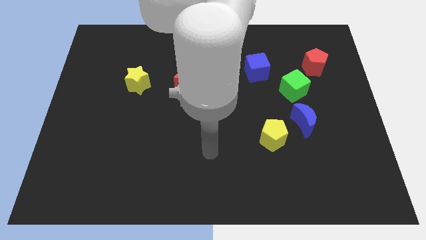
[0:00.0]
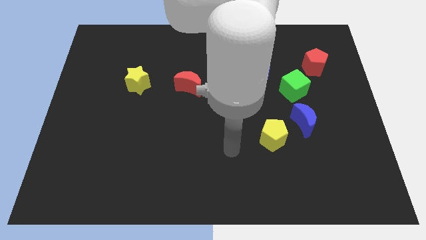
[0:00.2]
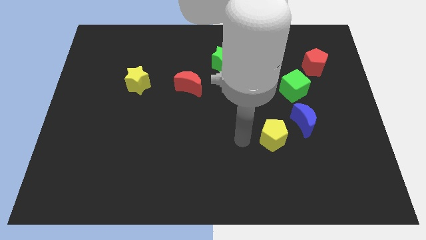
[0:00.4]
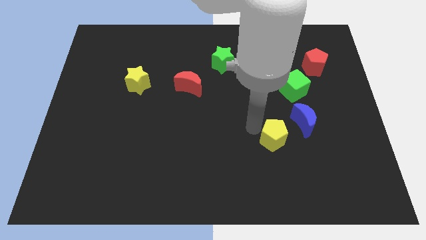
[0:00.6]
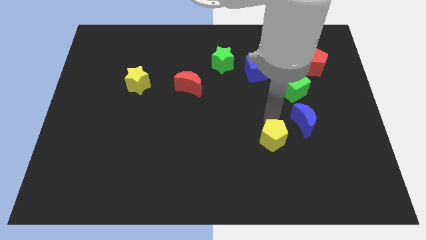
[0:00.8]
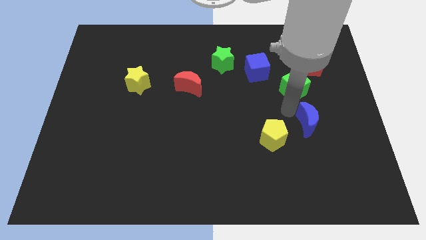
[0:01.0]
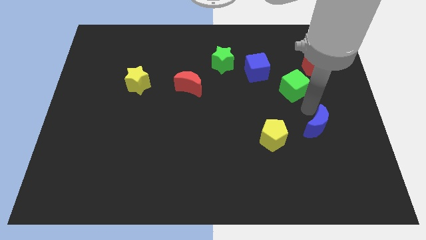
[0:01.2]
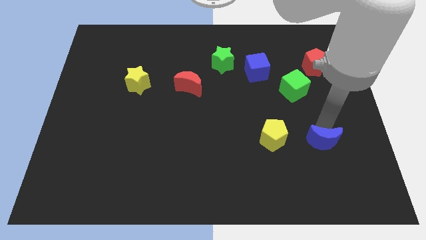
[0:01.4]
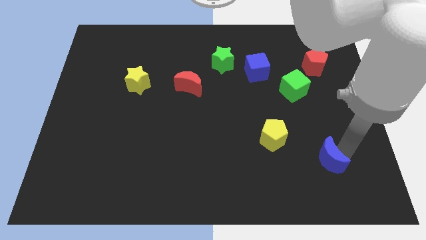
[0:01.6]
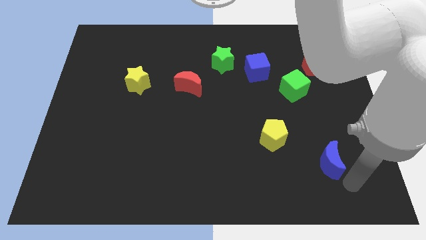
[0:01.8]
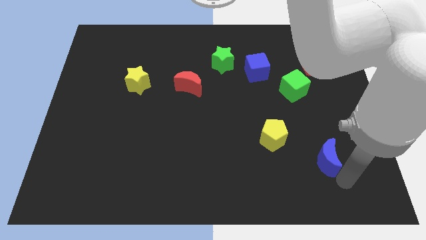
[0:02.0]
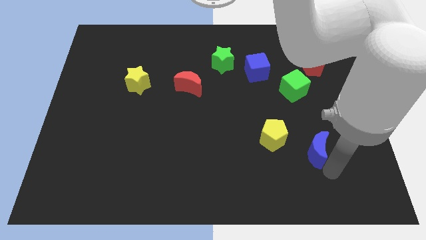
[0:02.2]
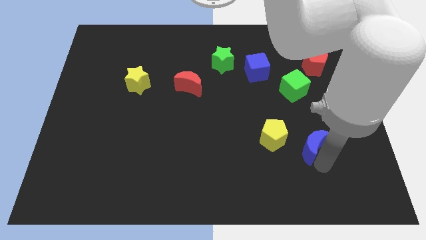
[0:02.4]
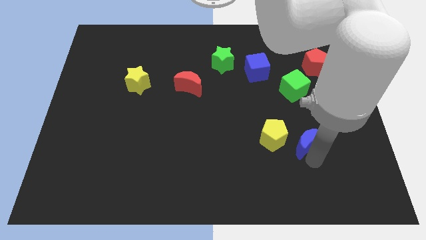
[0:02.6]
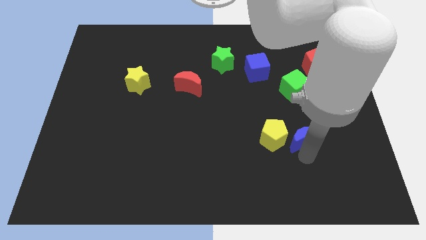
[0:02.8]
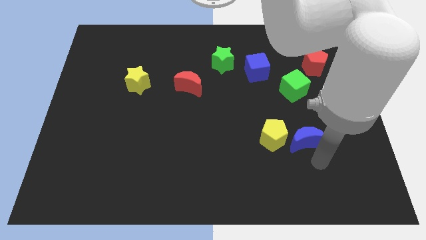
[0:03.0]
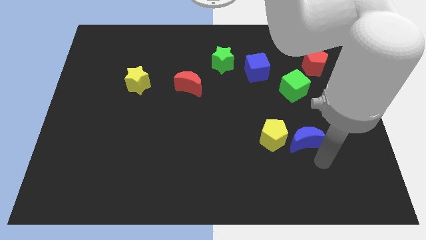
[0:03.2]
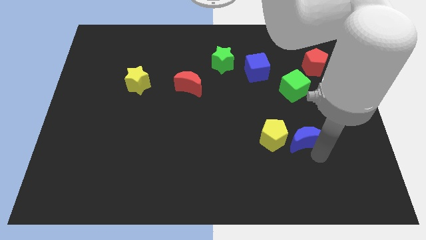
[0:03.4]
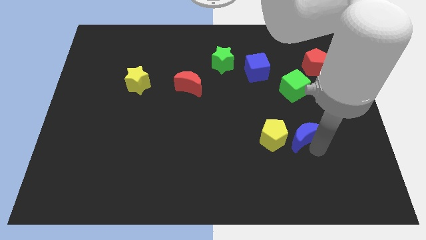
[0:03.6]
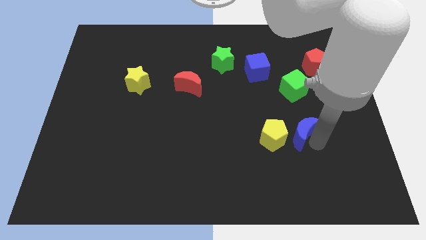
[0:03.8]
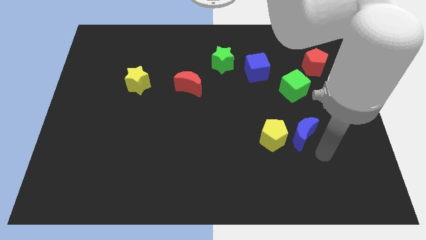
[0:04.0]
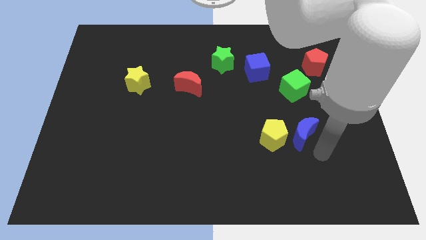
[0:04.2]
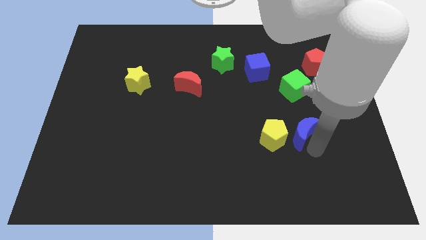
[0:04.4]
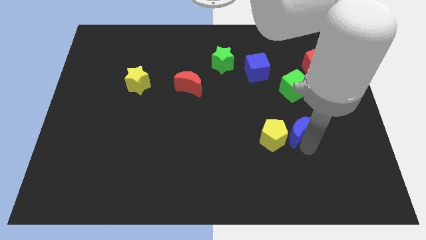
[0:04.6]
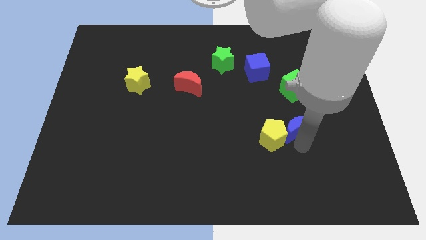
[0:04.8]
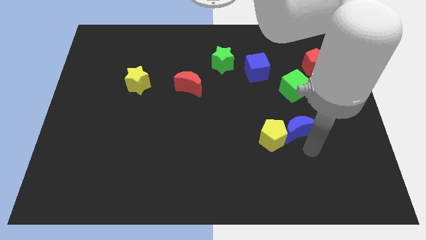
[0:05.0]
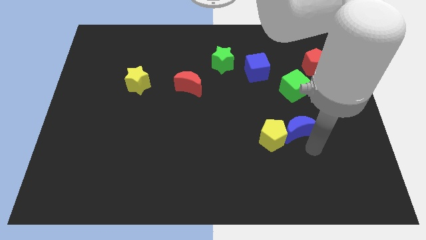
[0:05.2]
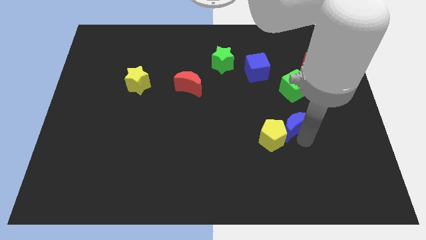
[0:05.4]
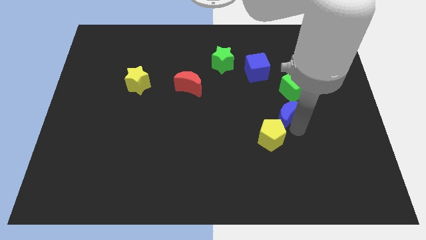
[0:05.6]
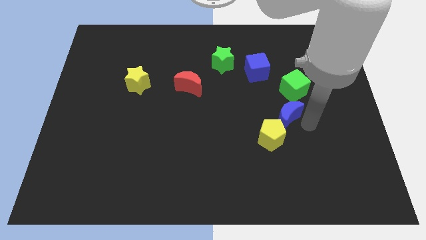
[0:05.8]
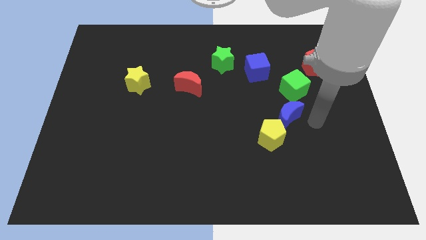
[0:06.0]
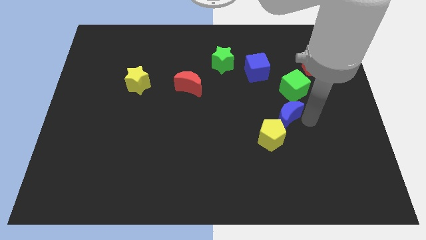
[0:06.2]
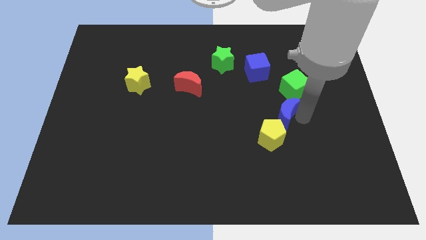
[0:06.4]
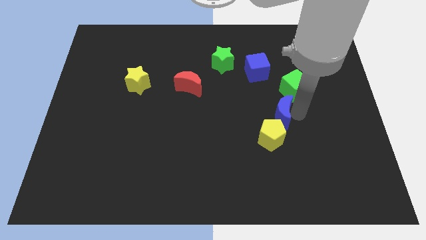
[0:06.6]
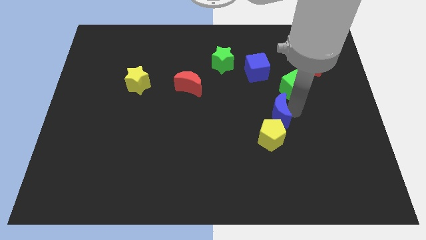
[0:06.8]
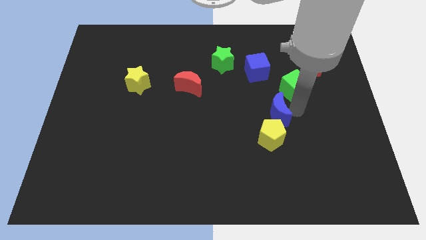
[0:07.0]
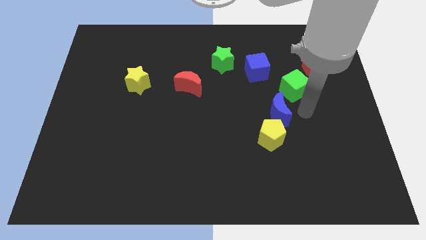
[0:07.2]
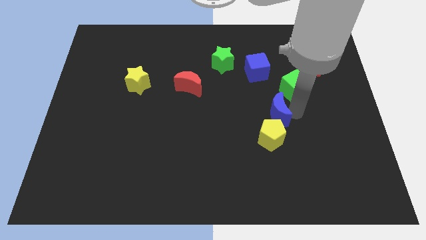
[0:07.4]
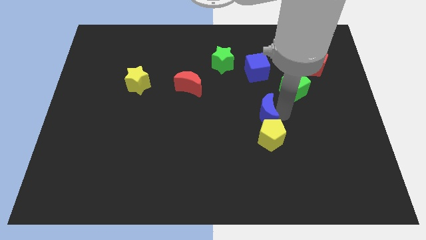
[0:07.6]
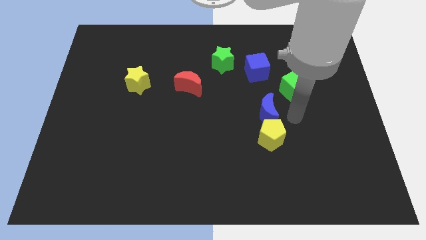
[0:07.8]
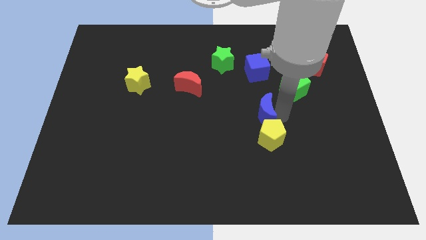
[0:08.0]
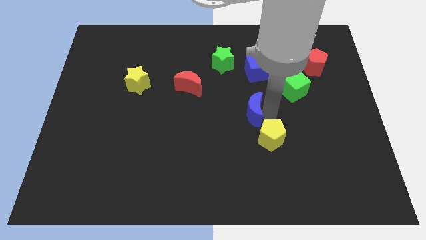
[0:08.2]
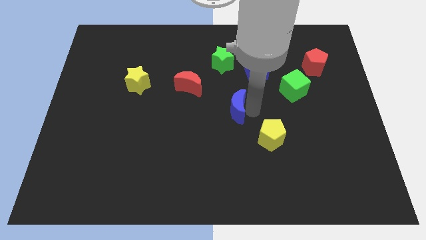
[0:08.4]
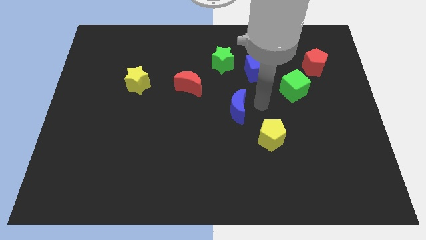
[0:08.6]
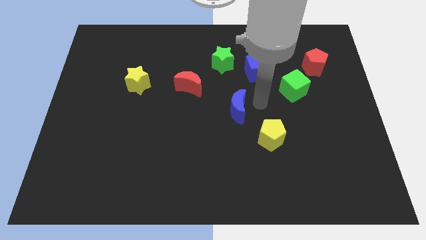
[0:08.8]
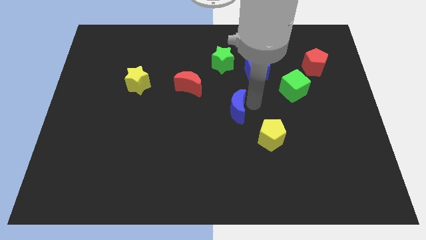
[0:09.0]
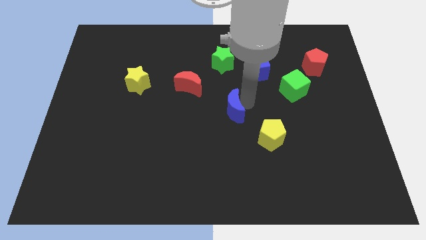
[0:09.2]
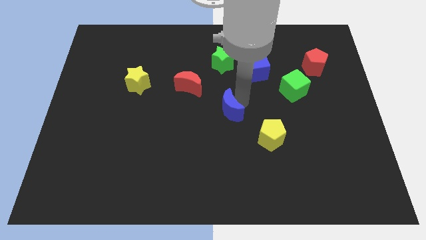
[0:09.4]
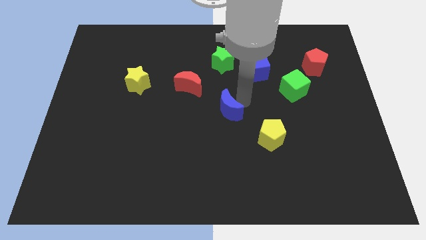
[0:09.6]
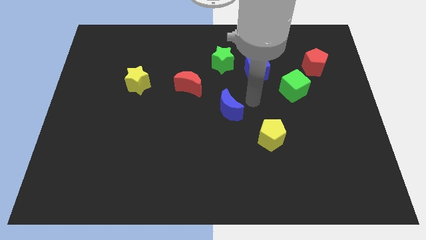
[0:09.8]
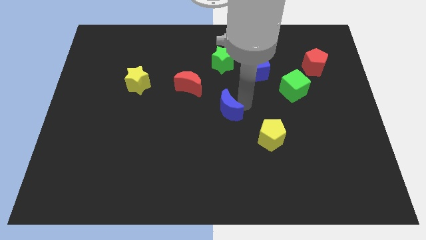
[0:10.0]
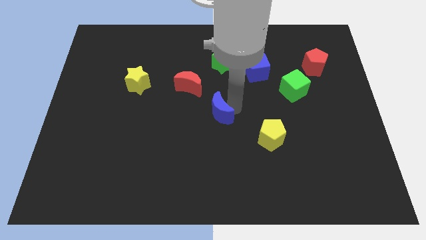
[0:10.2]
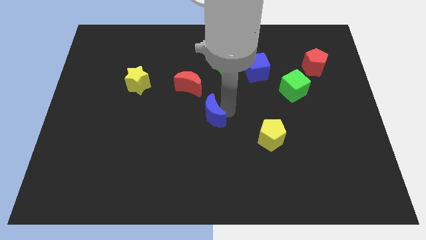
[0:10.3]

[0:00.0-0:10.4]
slide the blue moon left

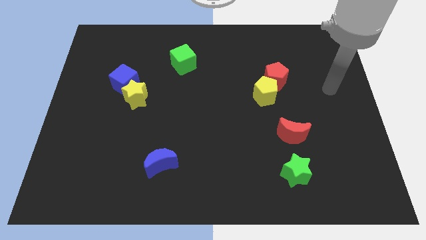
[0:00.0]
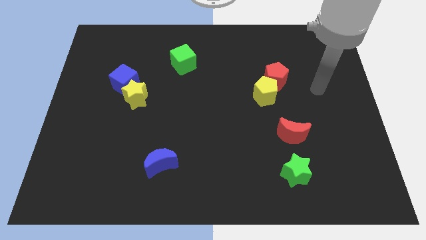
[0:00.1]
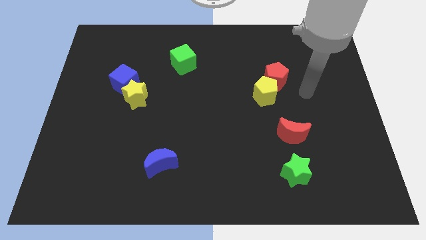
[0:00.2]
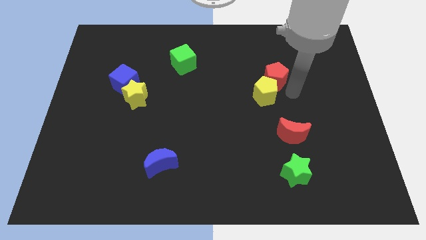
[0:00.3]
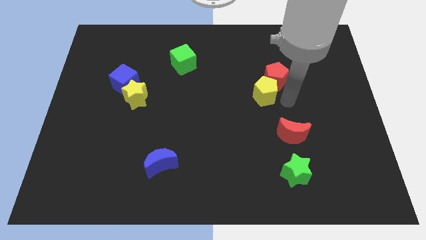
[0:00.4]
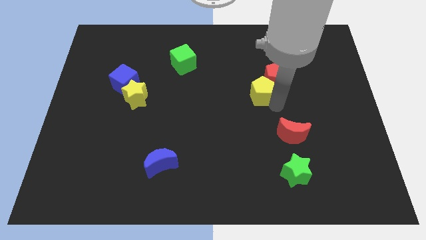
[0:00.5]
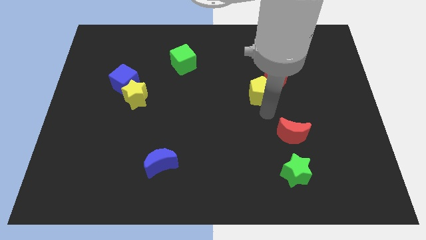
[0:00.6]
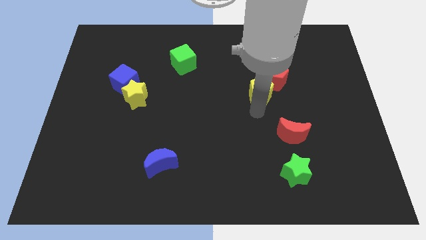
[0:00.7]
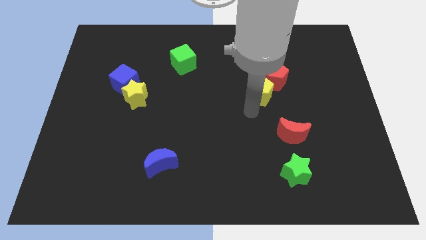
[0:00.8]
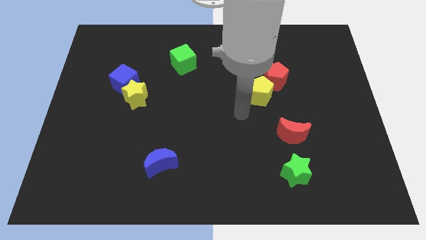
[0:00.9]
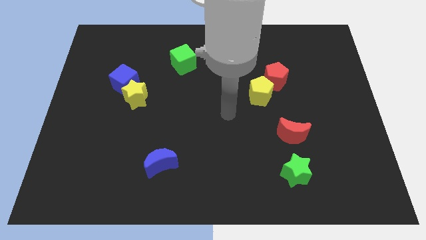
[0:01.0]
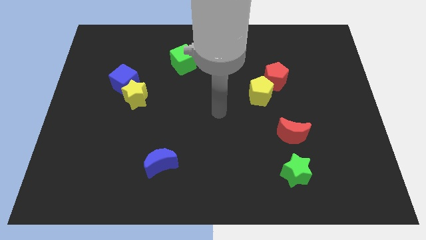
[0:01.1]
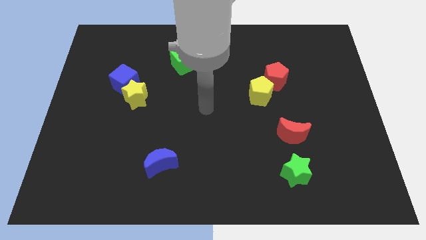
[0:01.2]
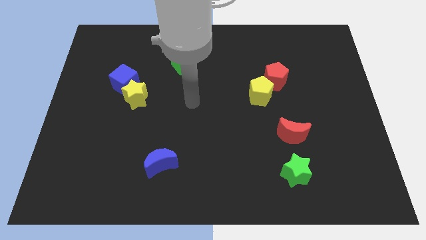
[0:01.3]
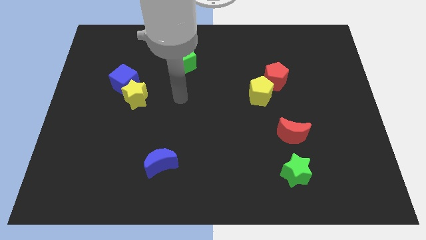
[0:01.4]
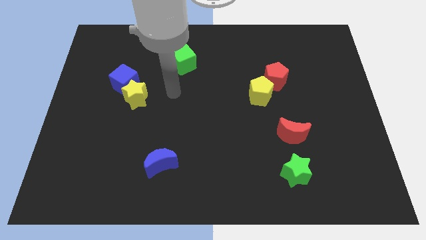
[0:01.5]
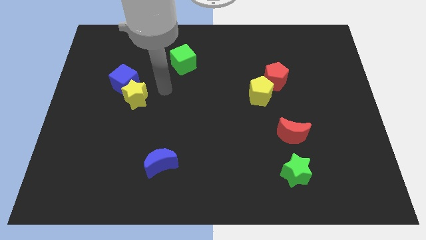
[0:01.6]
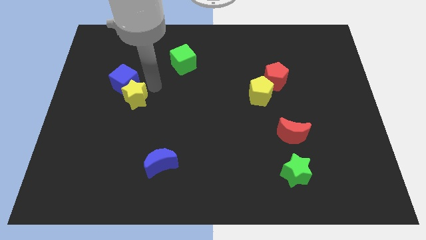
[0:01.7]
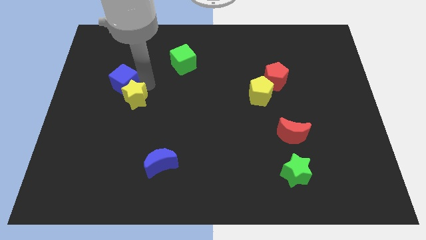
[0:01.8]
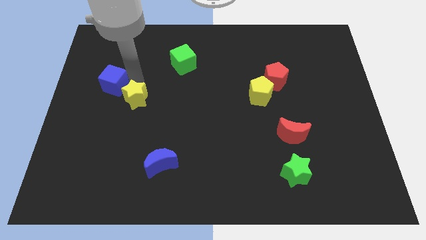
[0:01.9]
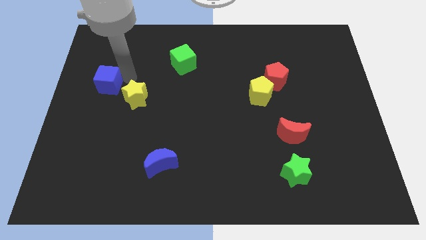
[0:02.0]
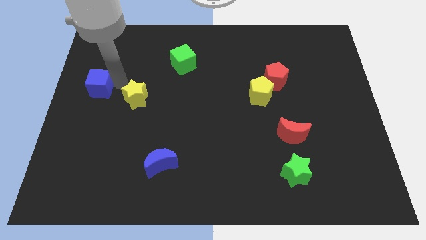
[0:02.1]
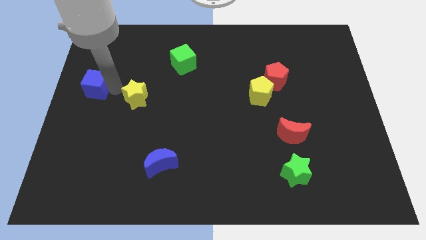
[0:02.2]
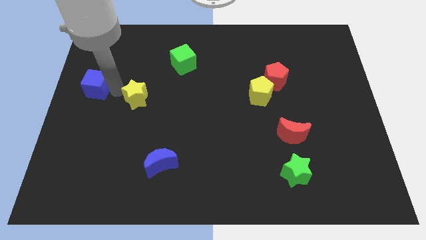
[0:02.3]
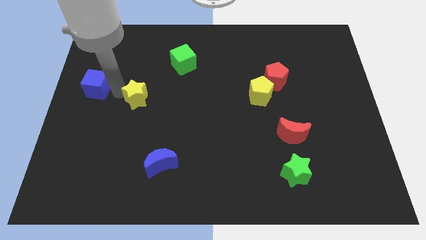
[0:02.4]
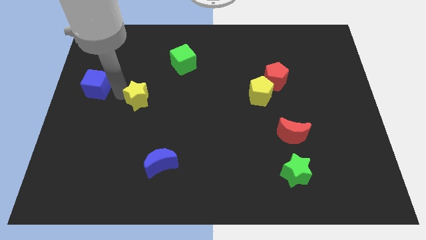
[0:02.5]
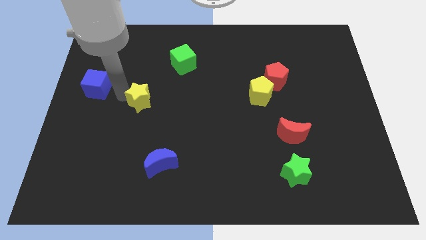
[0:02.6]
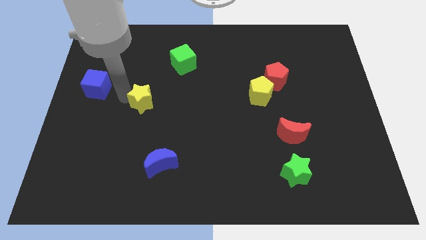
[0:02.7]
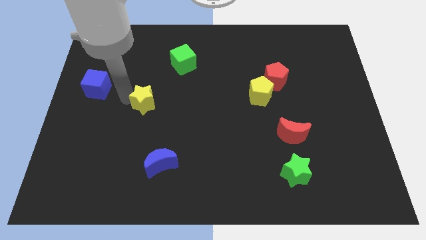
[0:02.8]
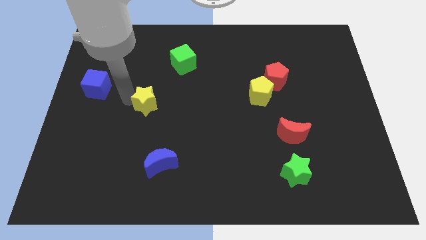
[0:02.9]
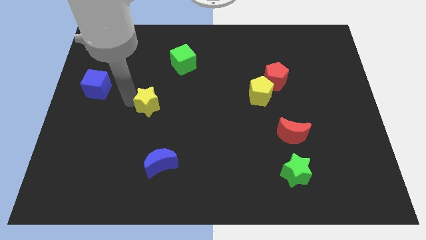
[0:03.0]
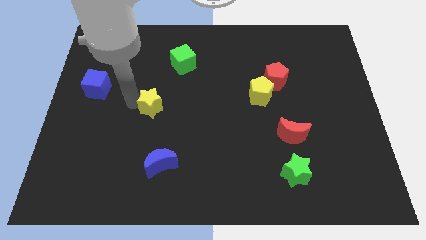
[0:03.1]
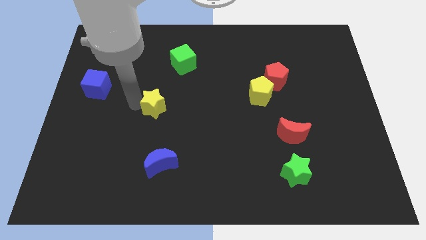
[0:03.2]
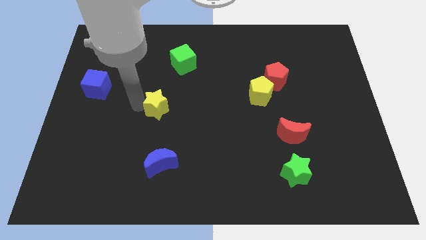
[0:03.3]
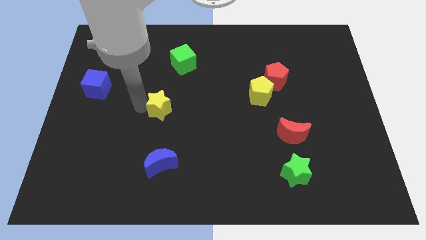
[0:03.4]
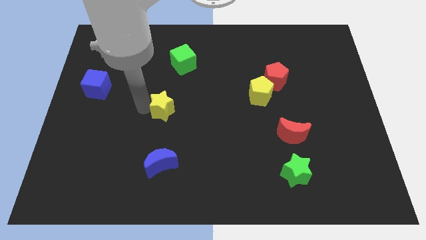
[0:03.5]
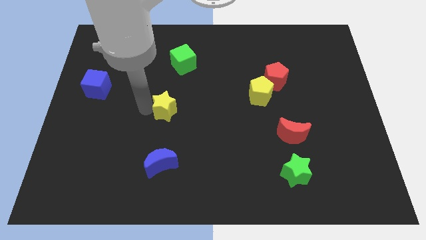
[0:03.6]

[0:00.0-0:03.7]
move the yellow star a little to the right
